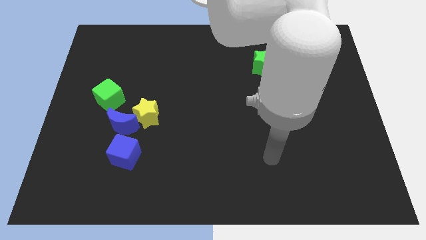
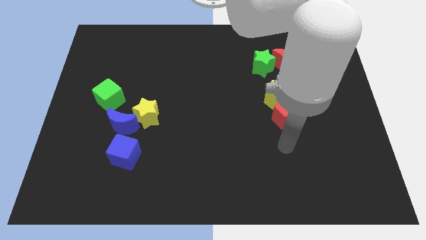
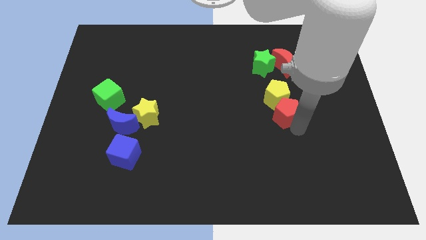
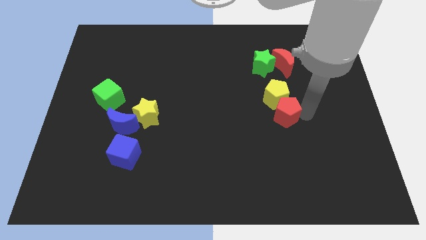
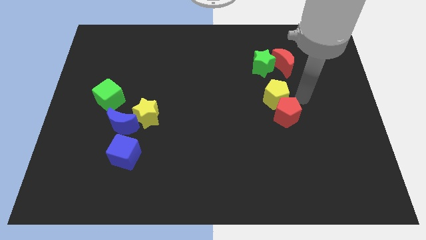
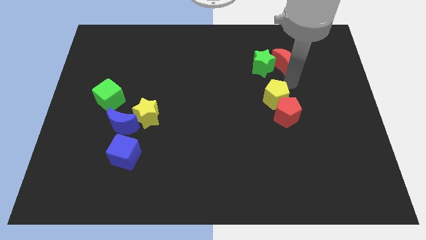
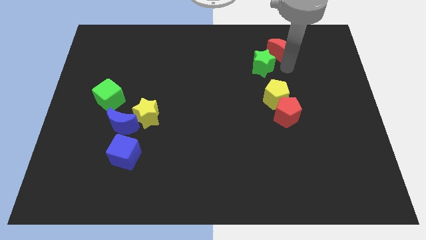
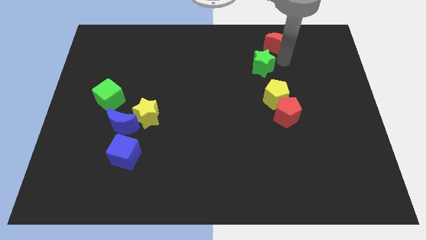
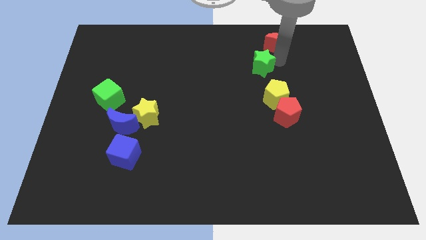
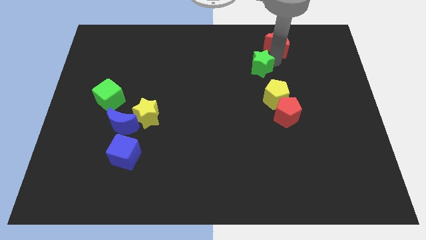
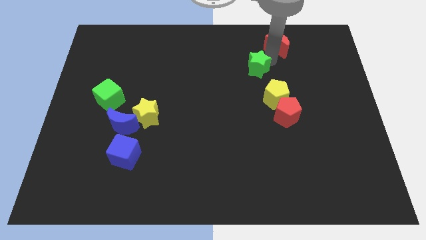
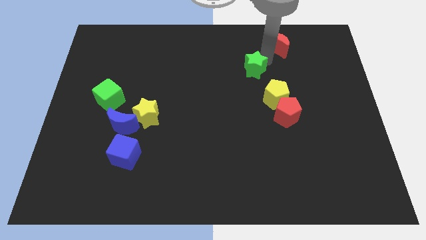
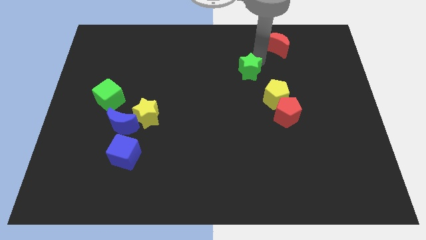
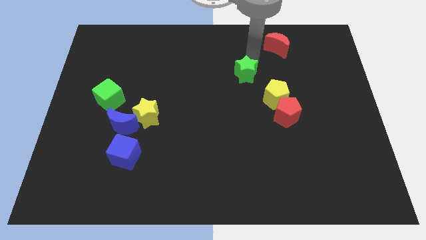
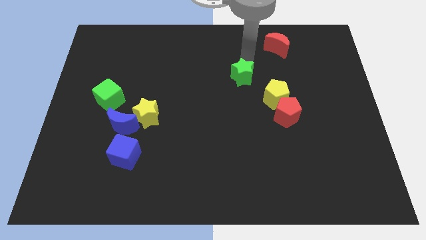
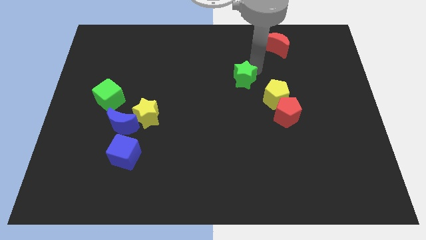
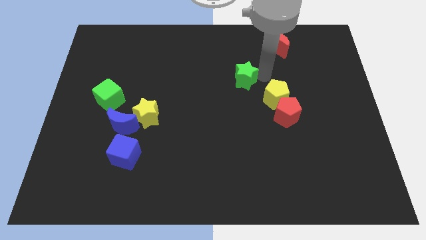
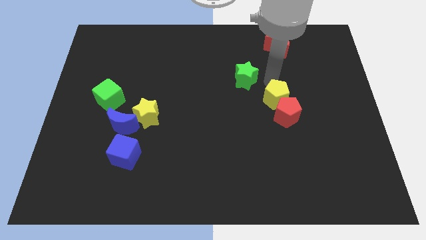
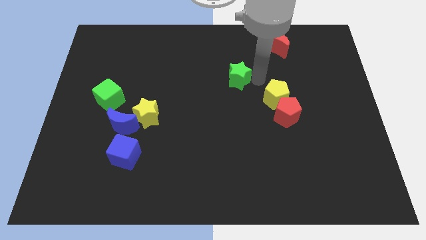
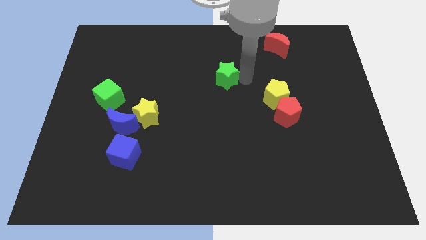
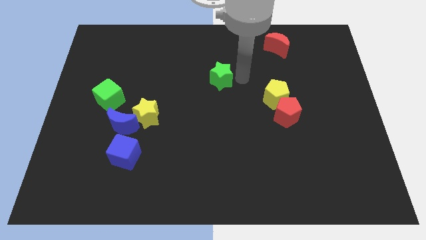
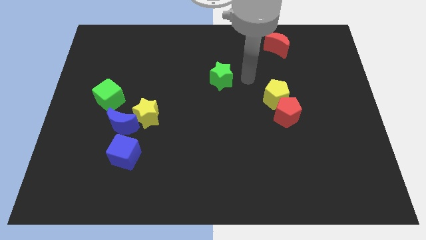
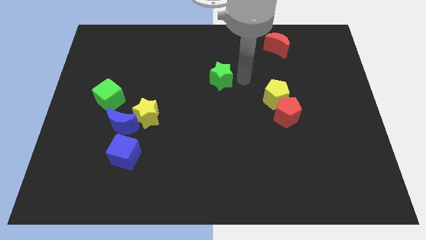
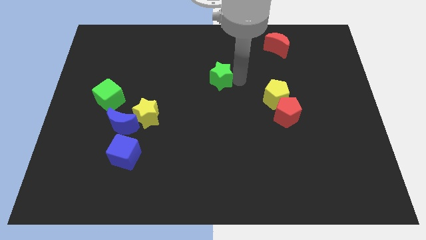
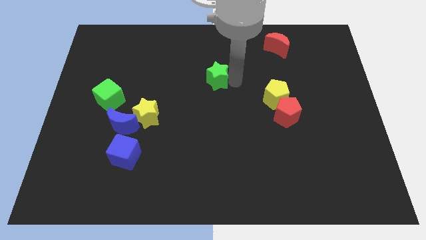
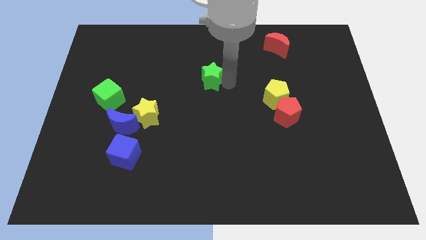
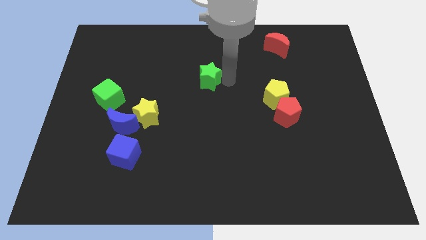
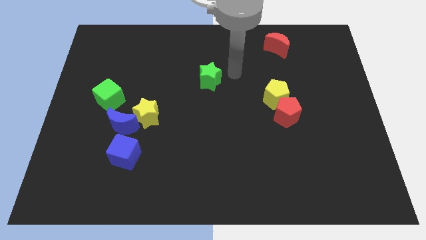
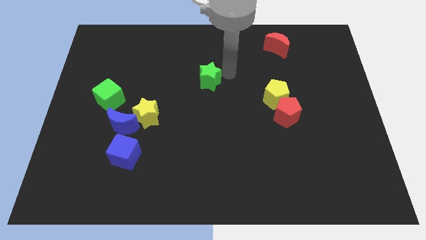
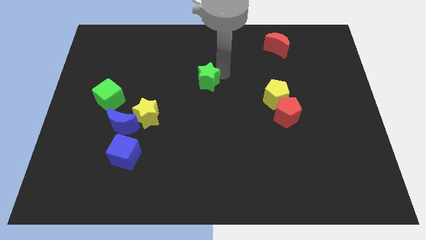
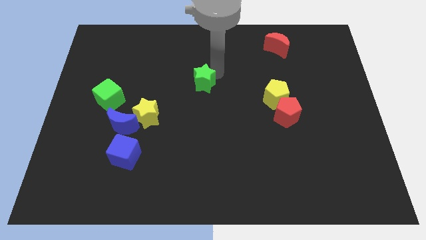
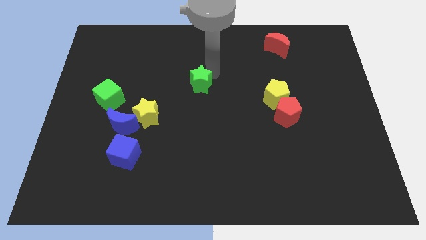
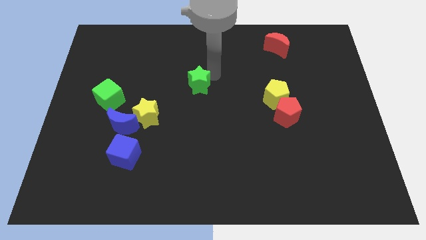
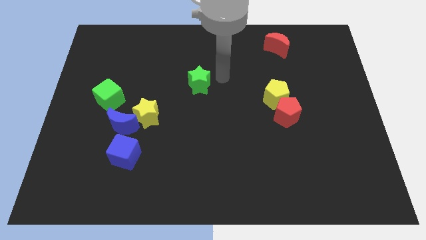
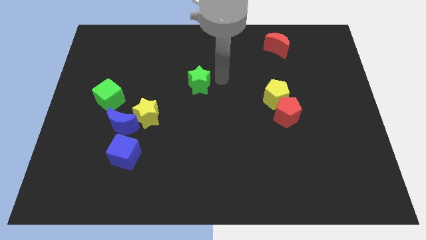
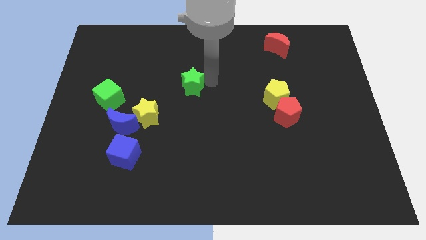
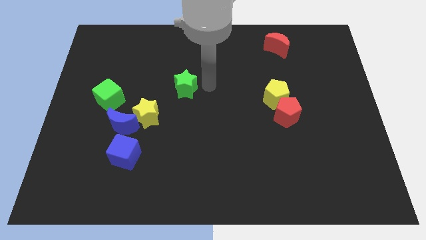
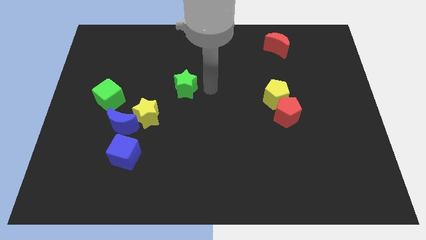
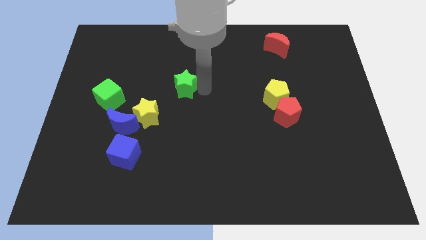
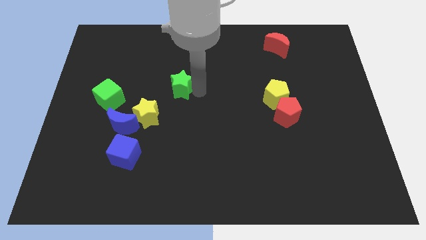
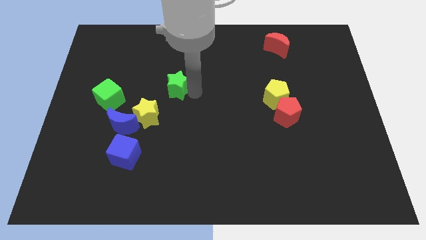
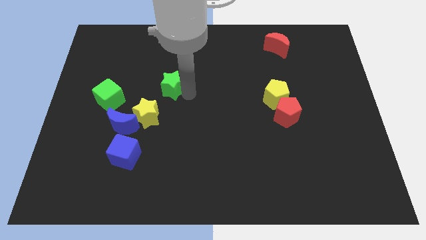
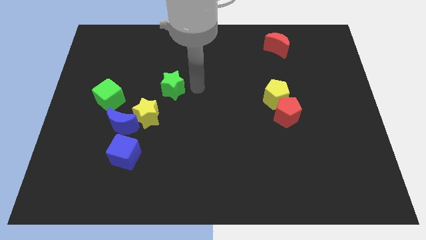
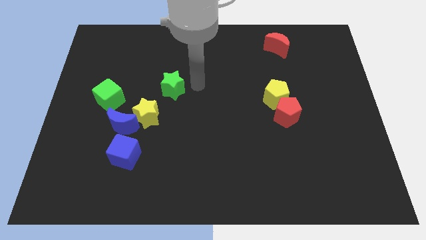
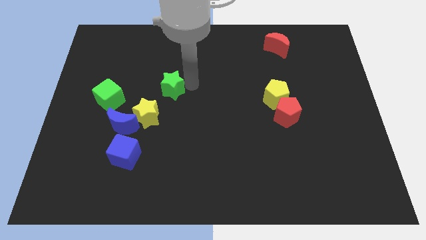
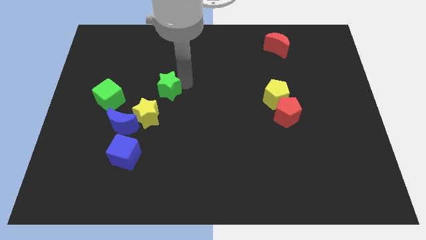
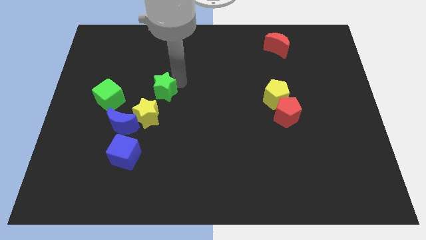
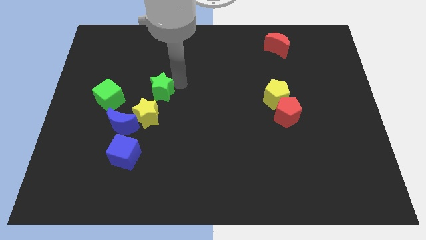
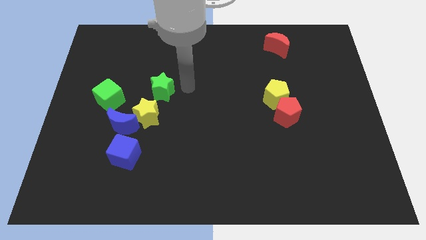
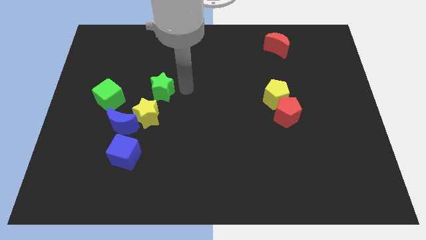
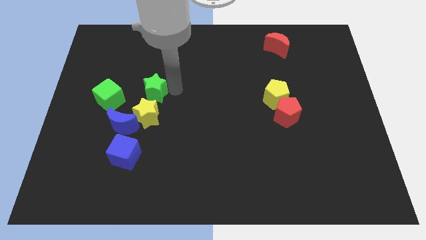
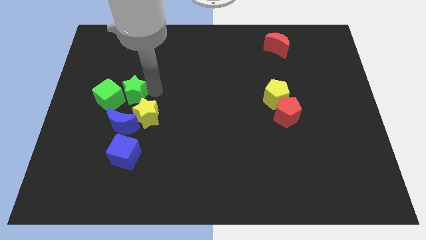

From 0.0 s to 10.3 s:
put the green star towards the green cube

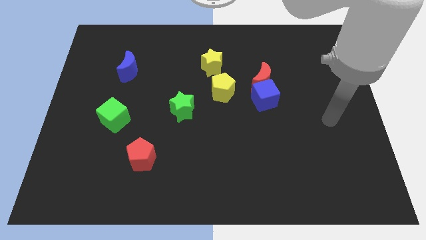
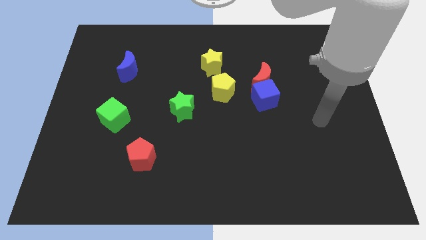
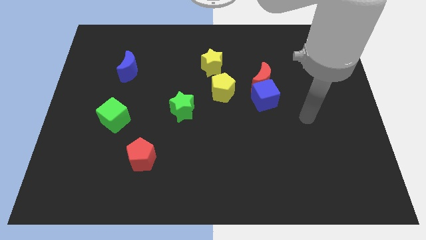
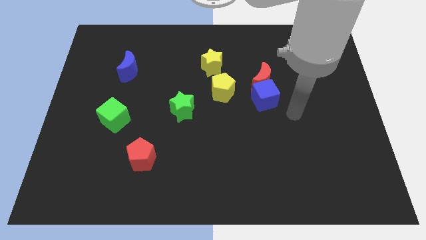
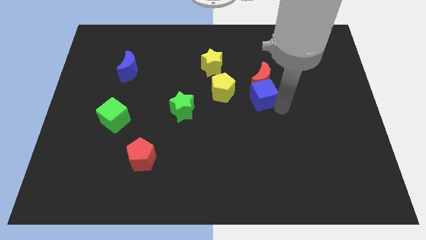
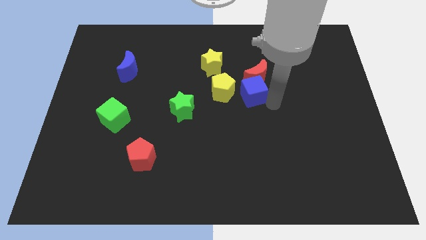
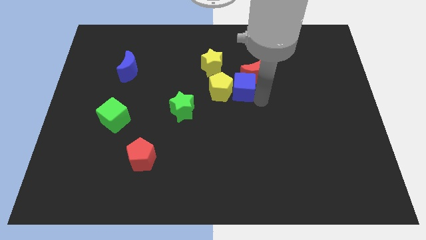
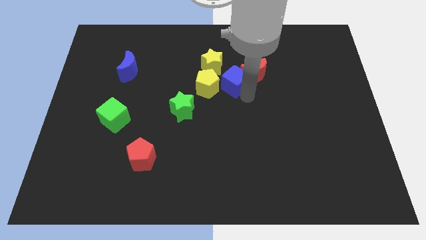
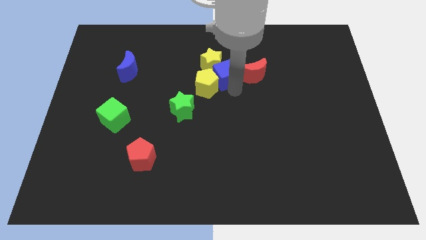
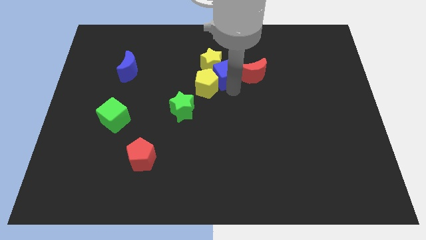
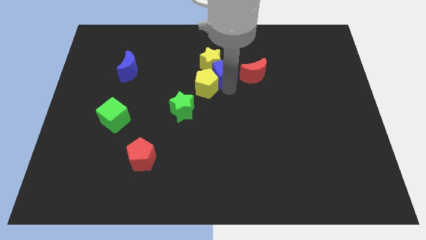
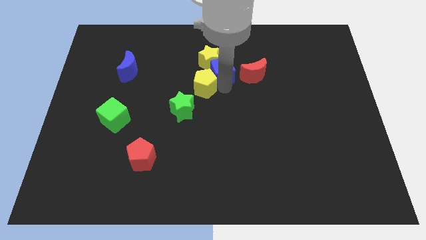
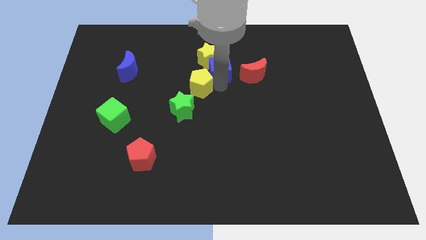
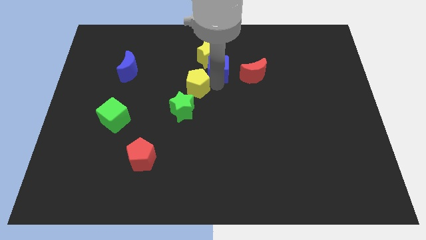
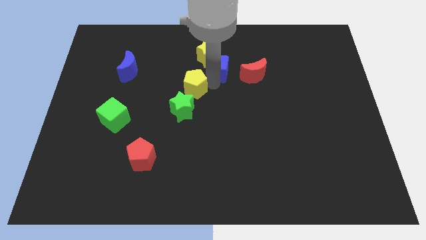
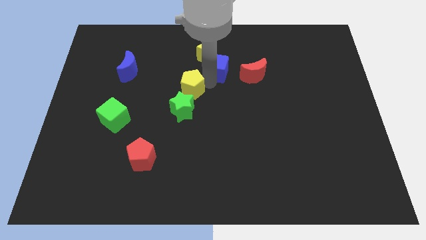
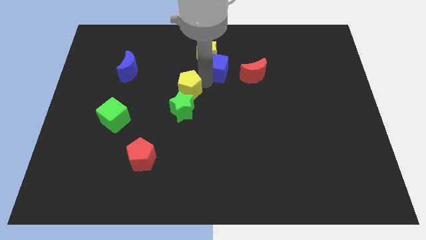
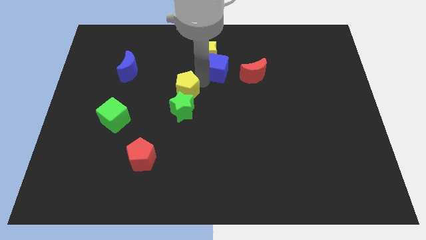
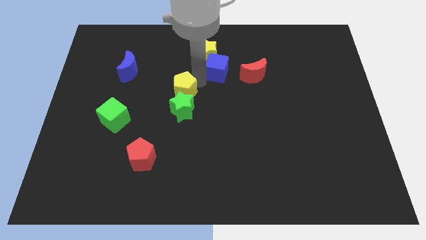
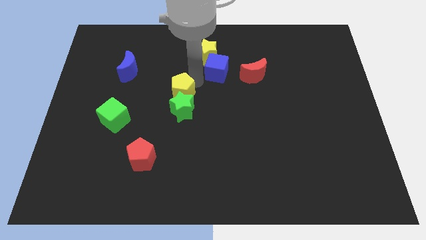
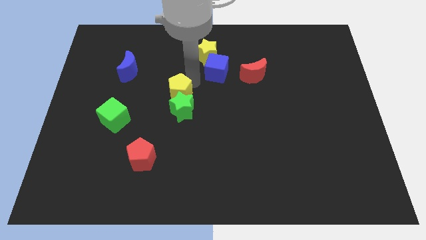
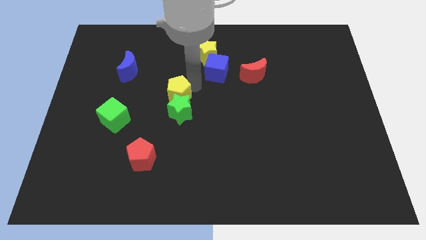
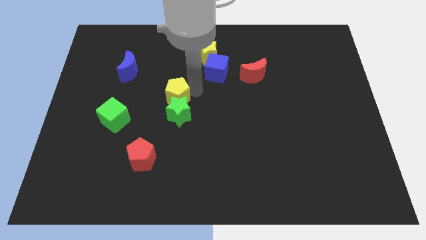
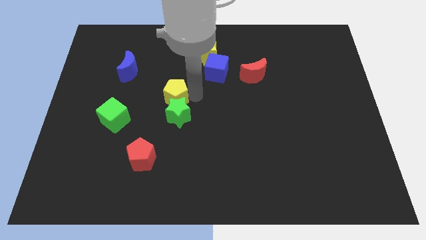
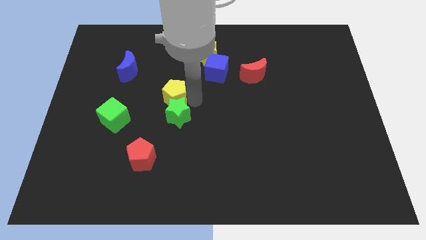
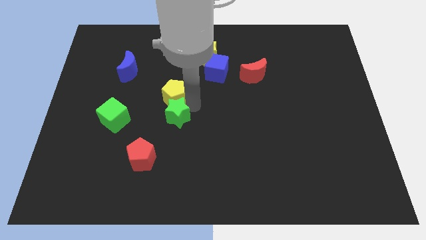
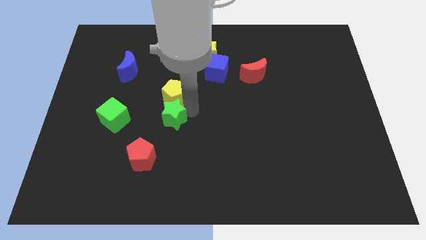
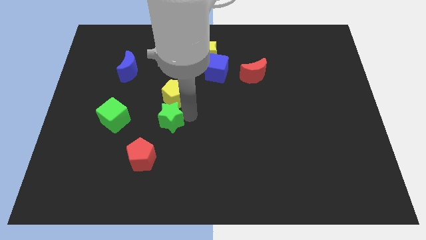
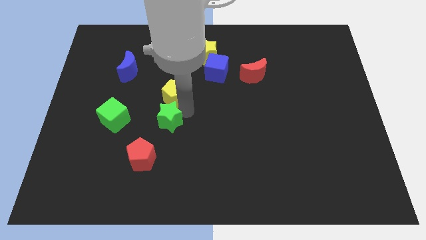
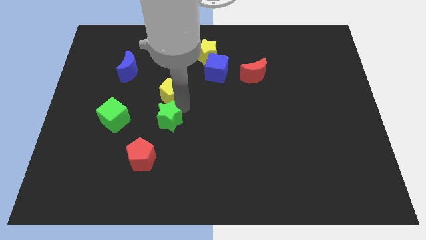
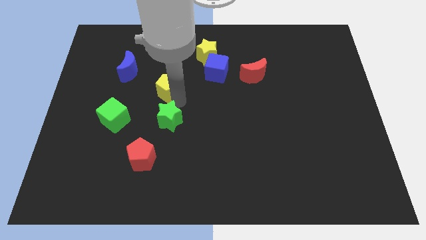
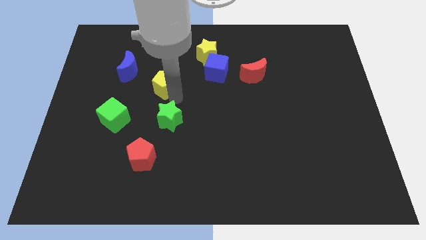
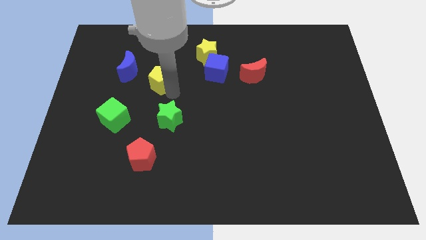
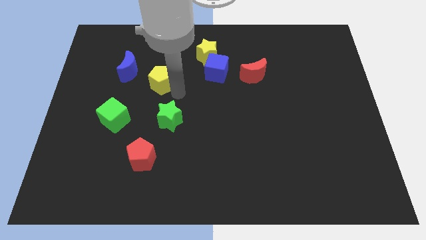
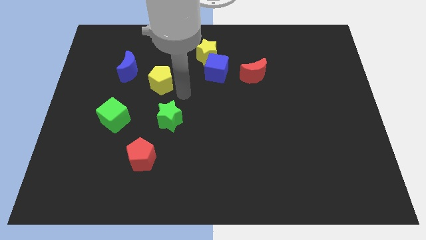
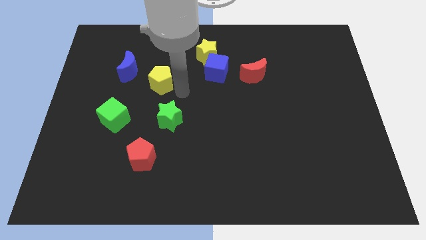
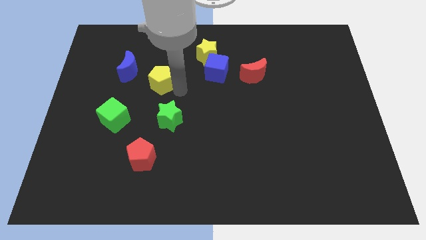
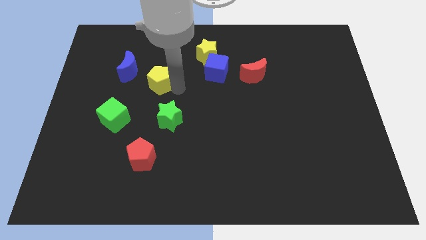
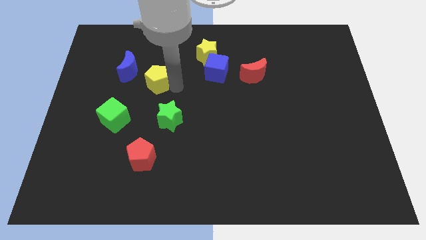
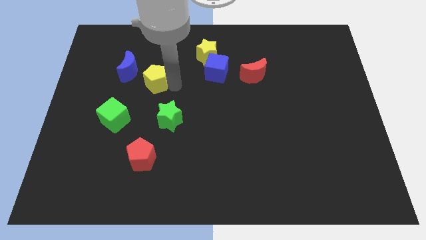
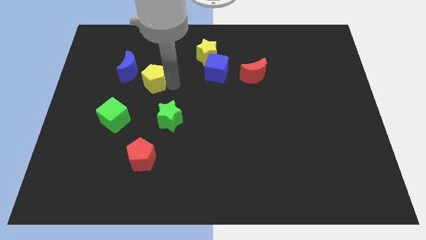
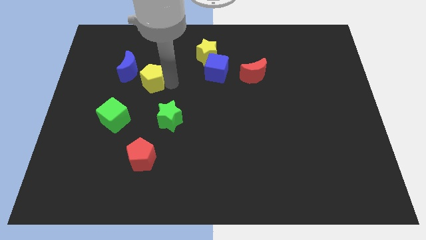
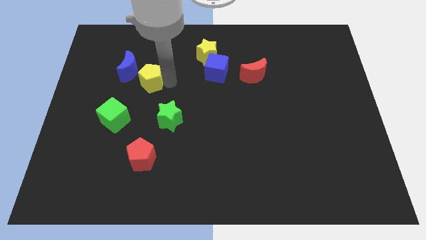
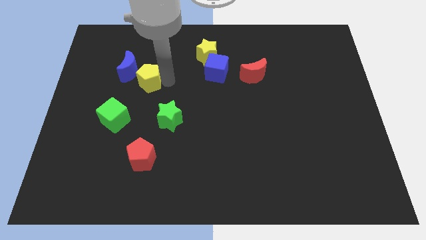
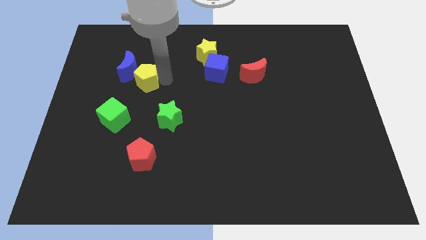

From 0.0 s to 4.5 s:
slide the yellow pentagon towards the blue moon
